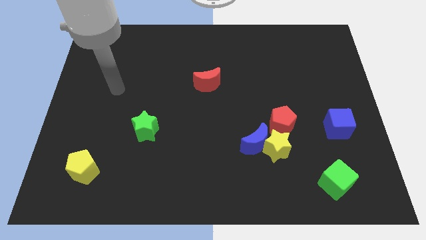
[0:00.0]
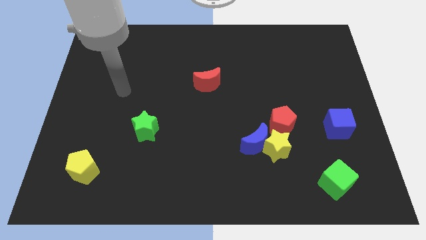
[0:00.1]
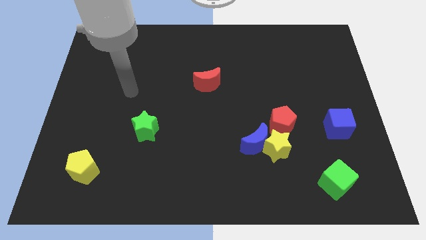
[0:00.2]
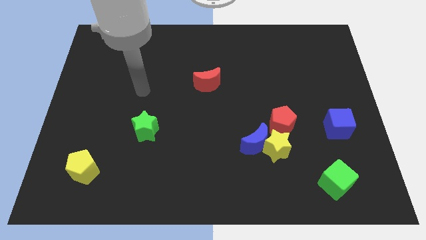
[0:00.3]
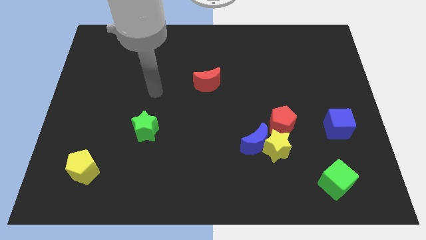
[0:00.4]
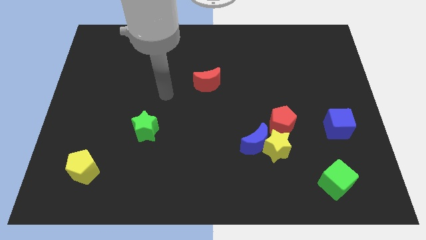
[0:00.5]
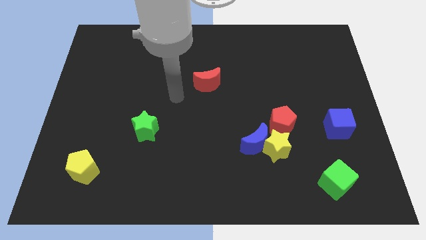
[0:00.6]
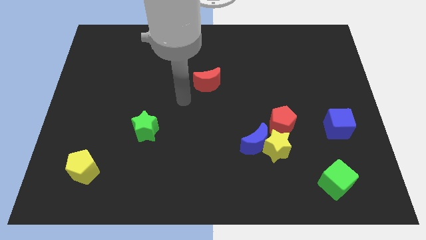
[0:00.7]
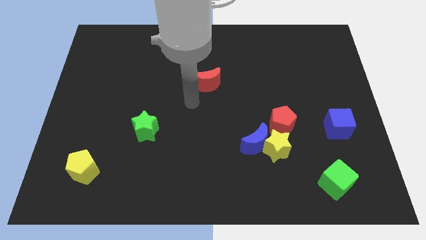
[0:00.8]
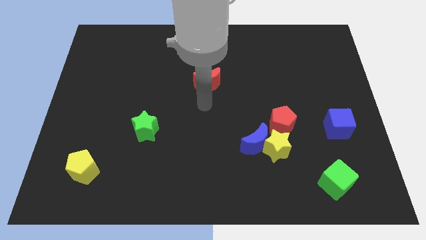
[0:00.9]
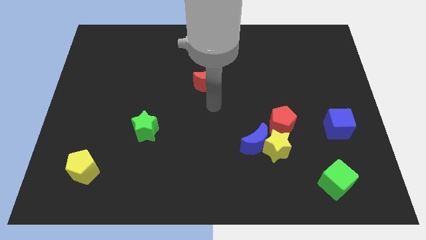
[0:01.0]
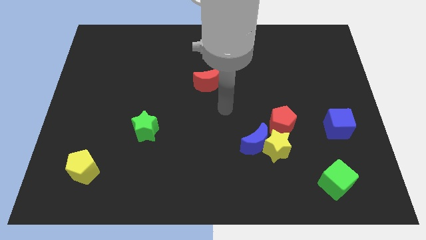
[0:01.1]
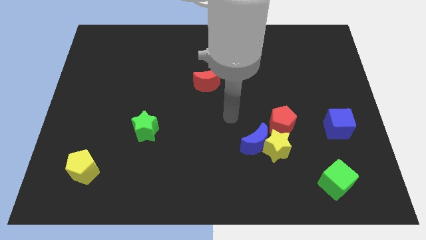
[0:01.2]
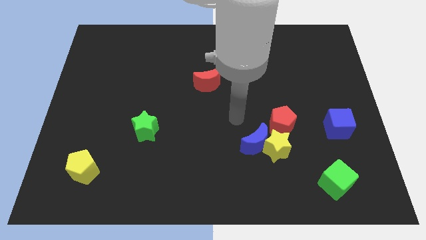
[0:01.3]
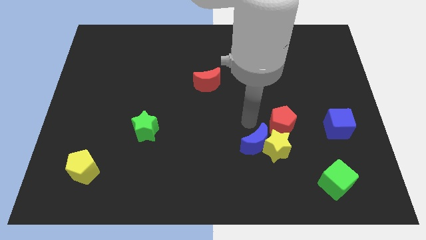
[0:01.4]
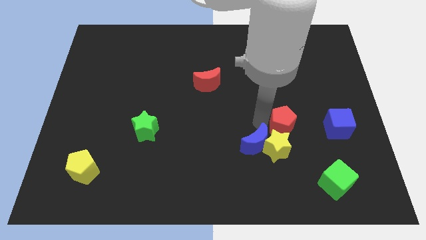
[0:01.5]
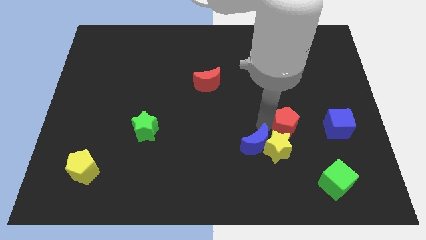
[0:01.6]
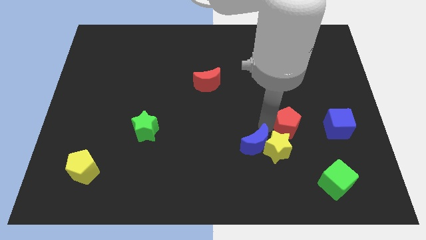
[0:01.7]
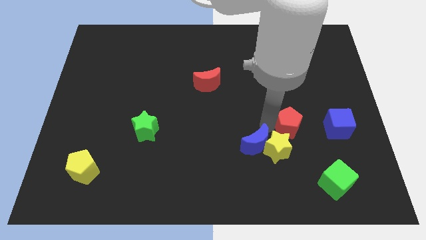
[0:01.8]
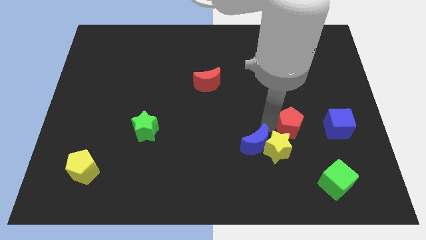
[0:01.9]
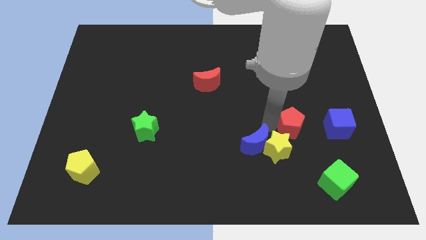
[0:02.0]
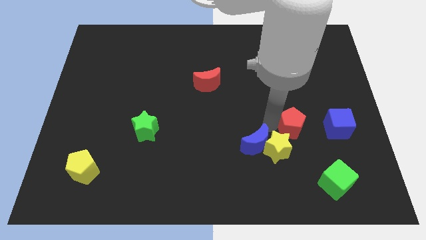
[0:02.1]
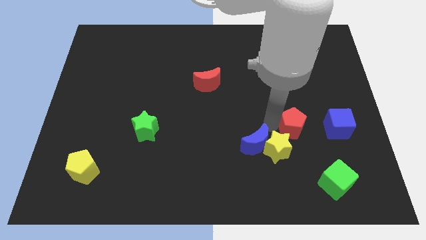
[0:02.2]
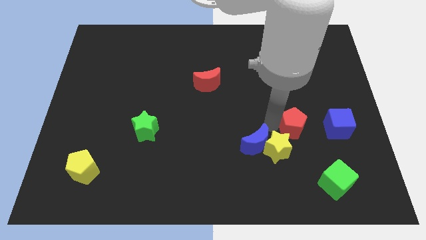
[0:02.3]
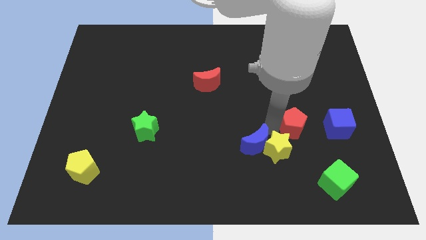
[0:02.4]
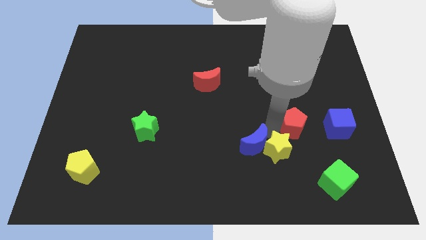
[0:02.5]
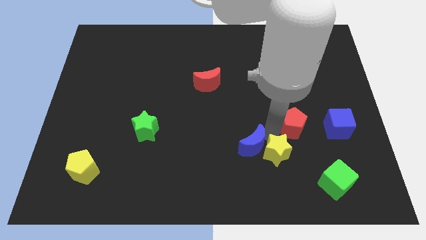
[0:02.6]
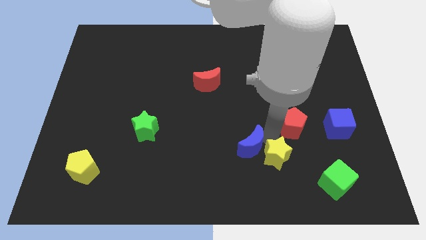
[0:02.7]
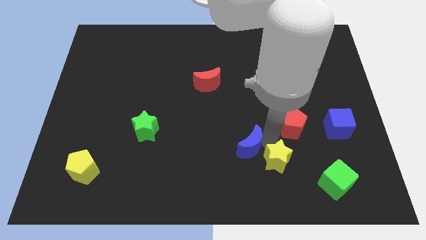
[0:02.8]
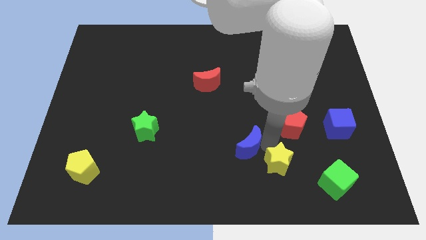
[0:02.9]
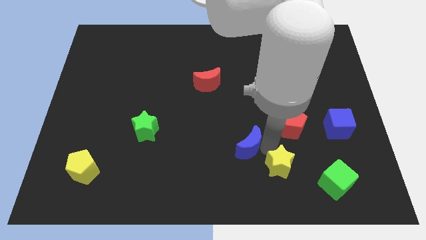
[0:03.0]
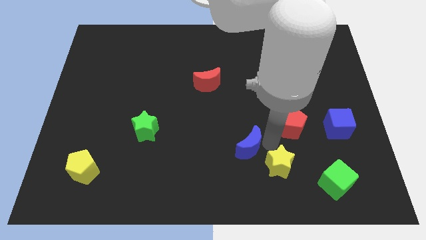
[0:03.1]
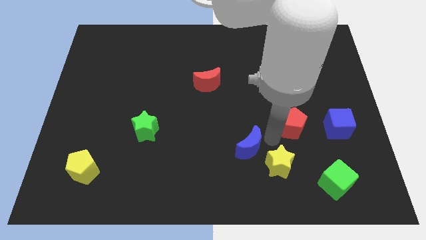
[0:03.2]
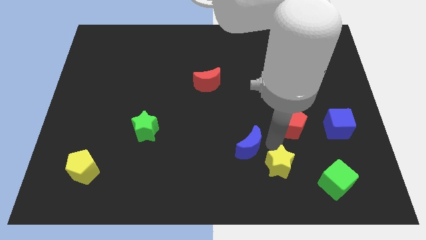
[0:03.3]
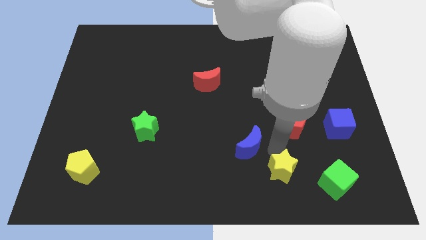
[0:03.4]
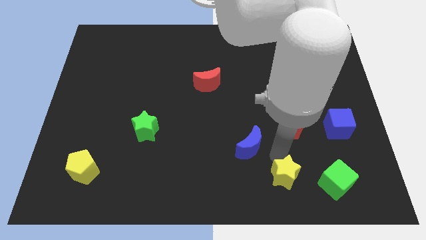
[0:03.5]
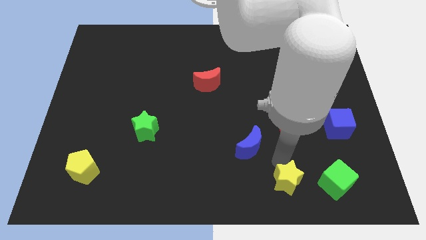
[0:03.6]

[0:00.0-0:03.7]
pull the yellow star apart from the blue moon and red pentagon

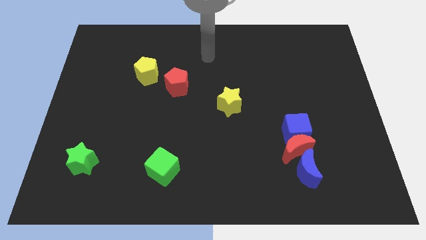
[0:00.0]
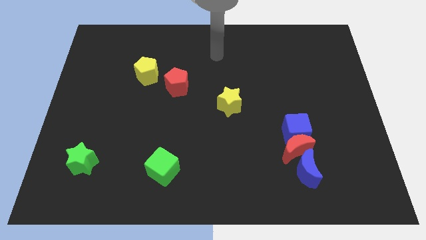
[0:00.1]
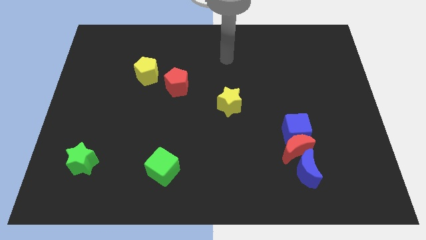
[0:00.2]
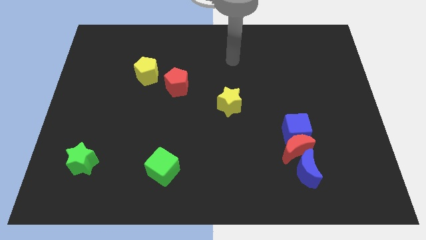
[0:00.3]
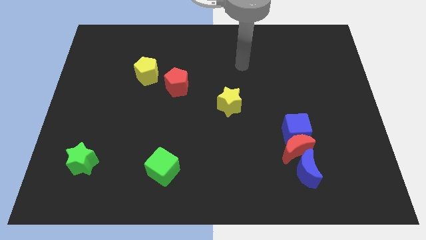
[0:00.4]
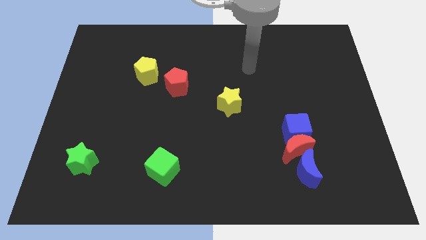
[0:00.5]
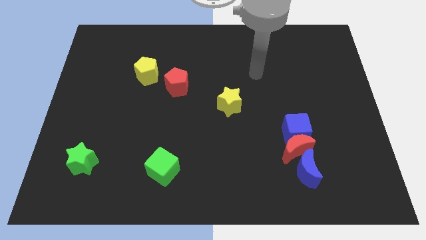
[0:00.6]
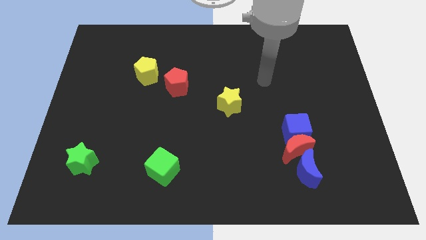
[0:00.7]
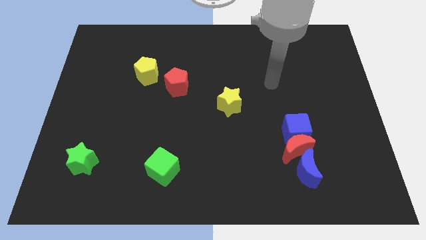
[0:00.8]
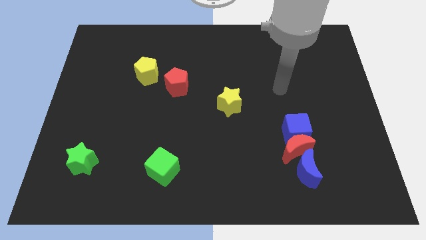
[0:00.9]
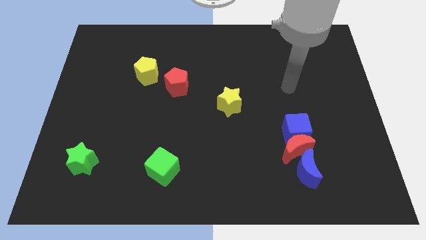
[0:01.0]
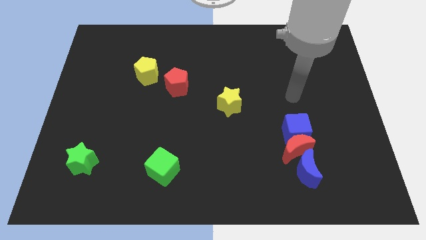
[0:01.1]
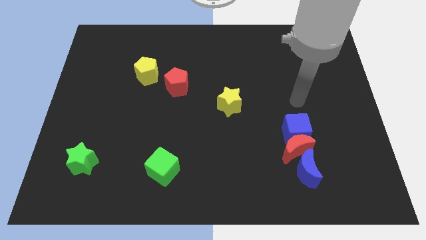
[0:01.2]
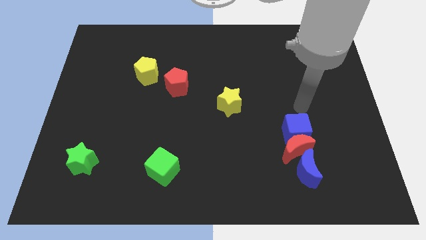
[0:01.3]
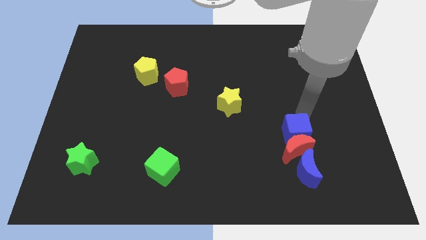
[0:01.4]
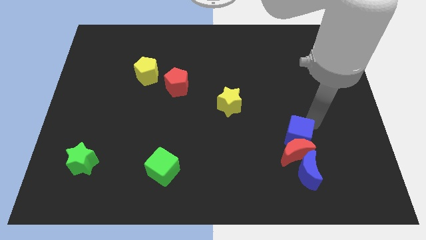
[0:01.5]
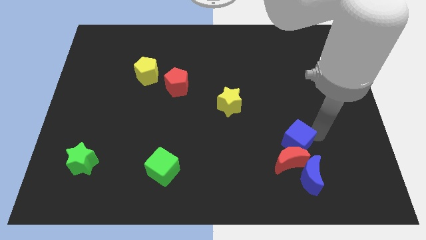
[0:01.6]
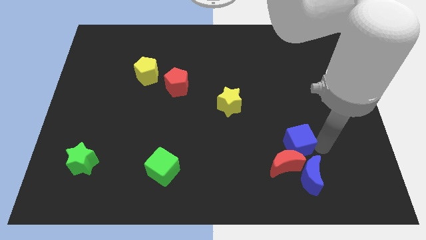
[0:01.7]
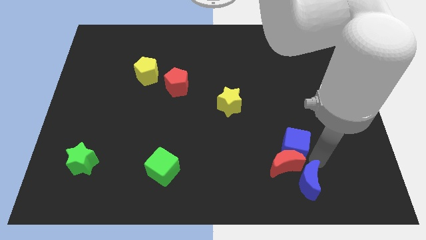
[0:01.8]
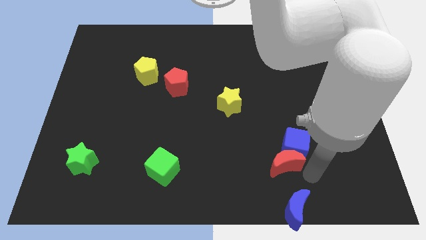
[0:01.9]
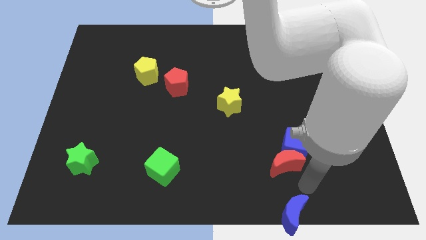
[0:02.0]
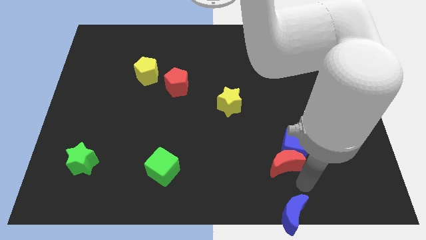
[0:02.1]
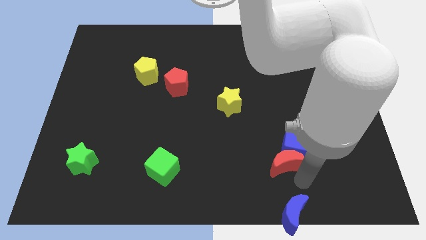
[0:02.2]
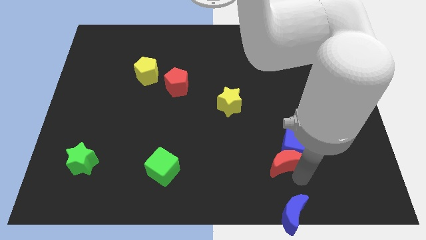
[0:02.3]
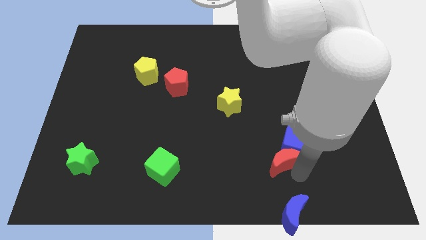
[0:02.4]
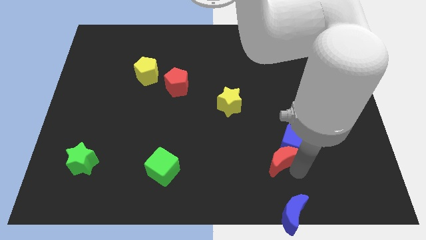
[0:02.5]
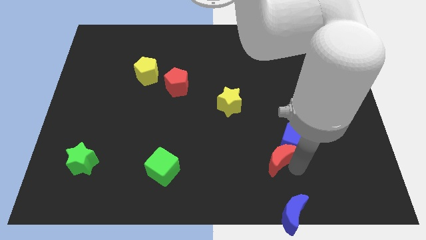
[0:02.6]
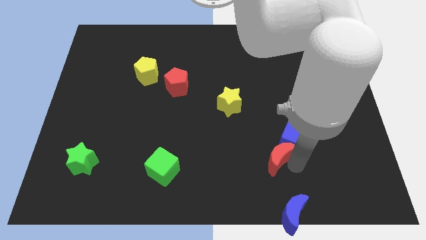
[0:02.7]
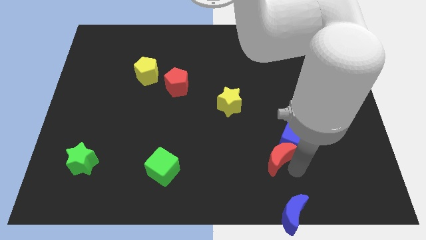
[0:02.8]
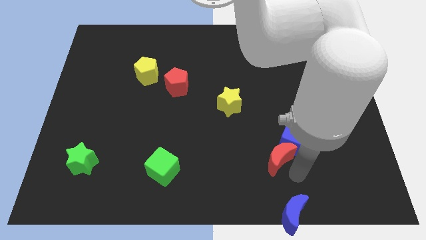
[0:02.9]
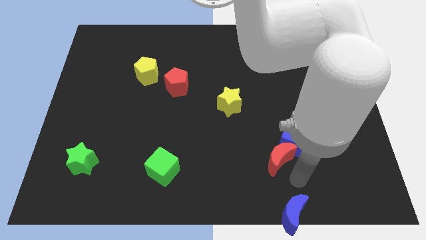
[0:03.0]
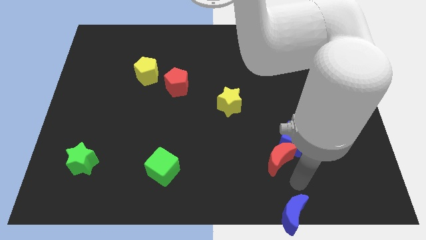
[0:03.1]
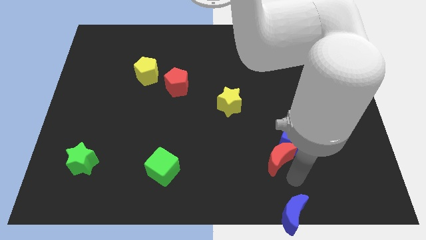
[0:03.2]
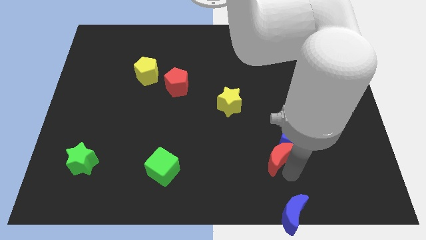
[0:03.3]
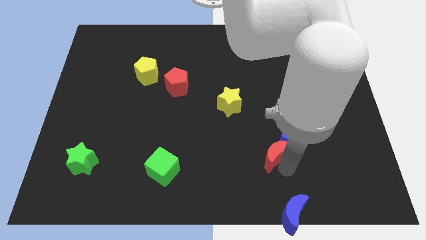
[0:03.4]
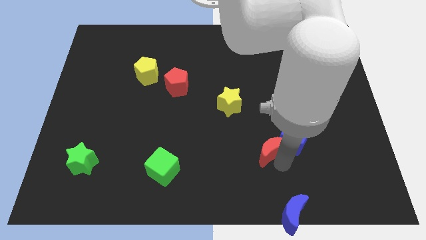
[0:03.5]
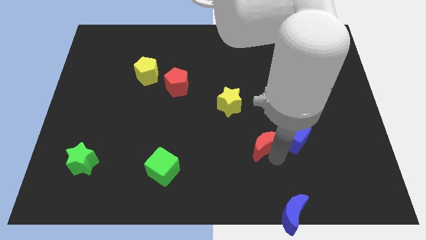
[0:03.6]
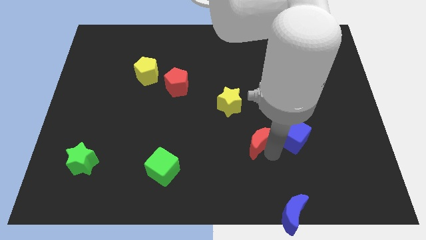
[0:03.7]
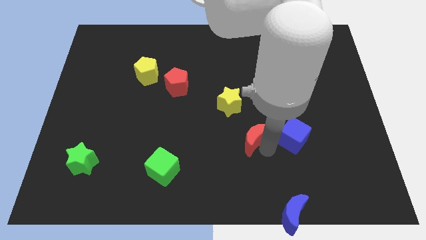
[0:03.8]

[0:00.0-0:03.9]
move the red moon away from the blue cube and blue moon

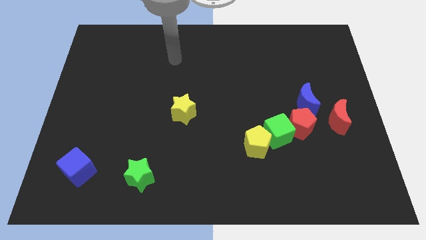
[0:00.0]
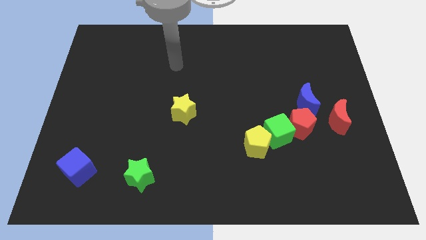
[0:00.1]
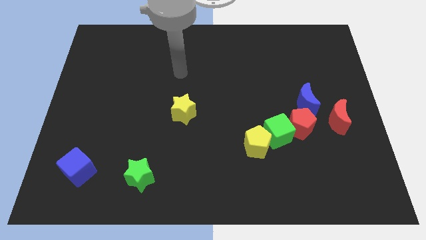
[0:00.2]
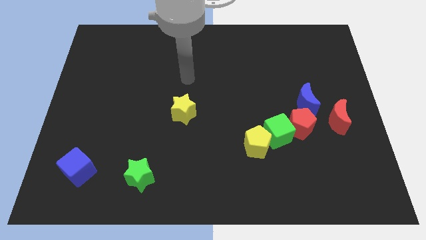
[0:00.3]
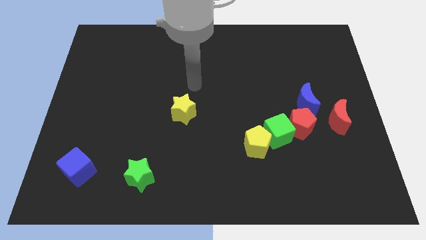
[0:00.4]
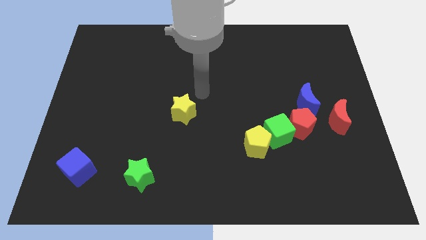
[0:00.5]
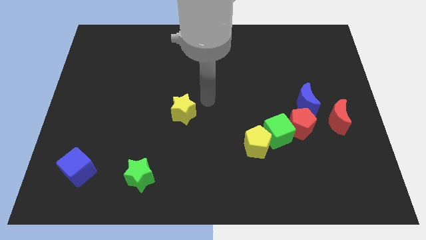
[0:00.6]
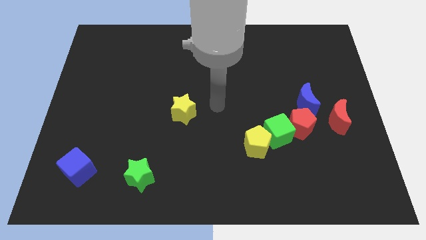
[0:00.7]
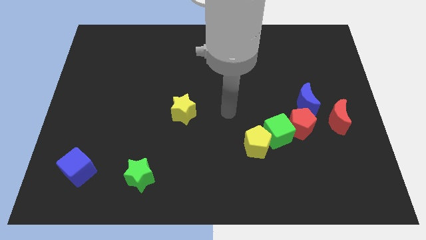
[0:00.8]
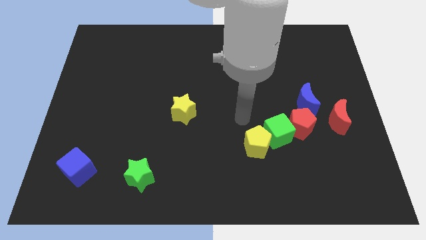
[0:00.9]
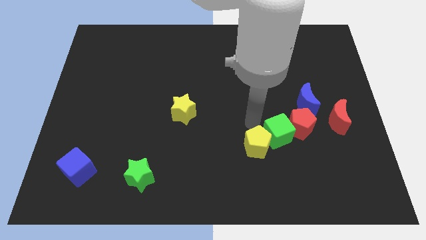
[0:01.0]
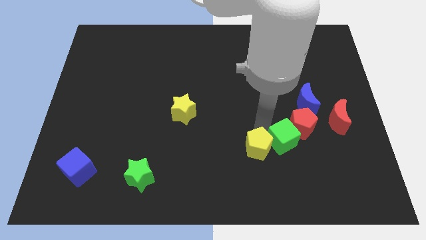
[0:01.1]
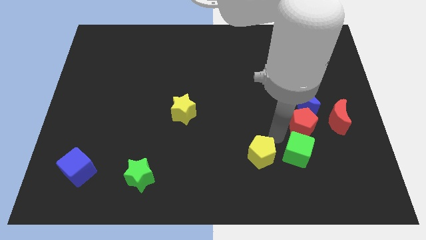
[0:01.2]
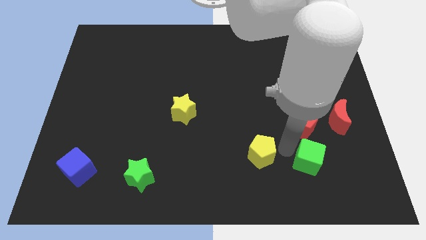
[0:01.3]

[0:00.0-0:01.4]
move the yellow pentagon away from the green cube

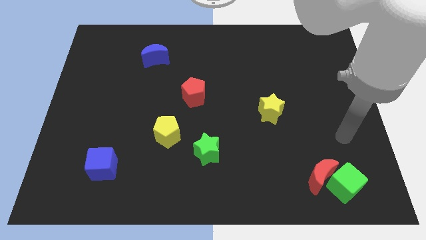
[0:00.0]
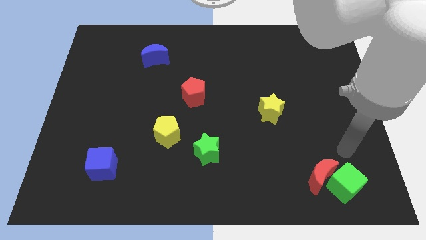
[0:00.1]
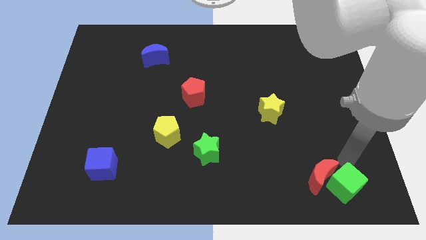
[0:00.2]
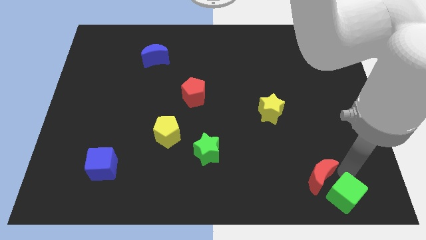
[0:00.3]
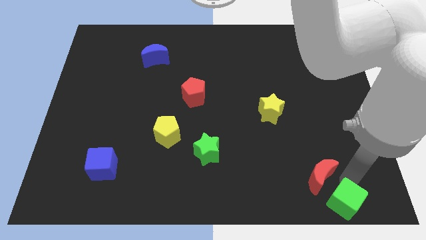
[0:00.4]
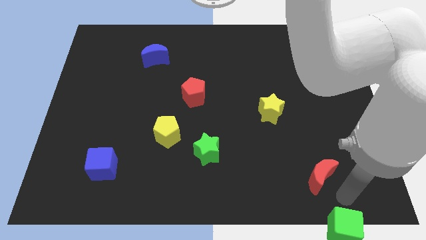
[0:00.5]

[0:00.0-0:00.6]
move the red moon away from the green cube
